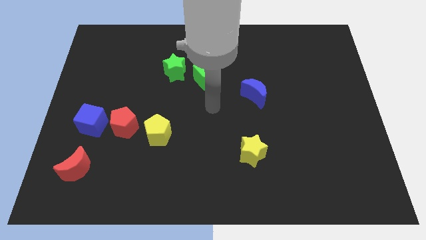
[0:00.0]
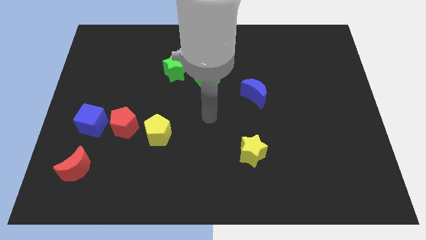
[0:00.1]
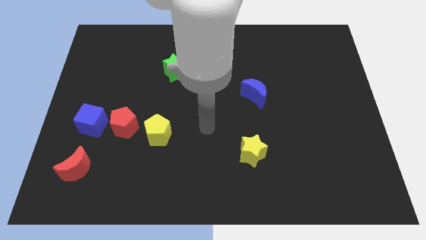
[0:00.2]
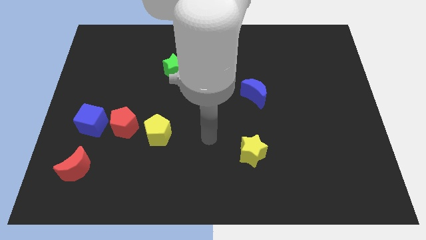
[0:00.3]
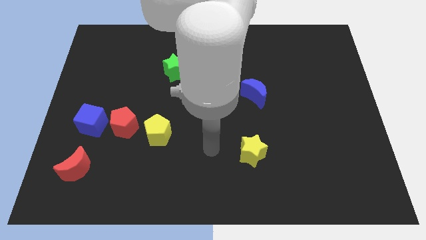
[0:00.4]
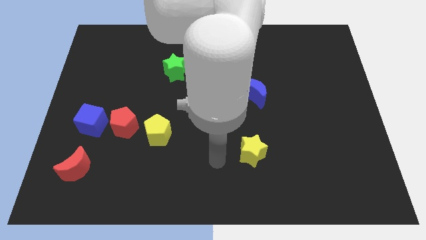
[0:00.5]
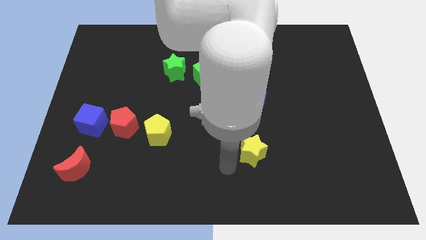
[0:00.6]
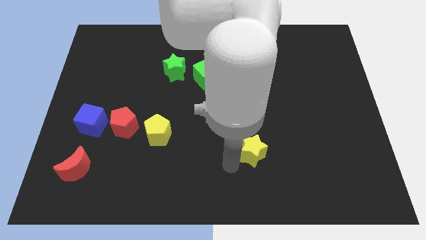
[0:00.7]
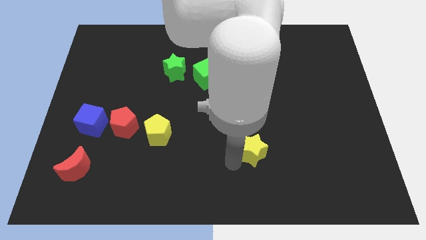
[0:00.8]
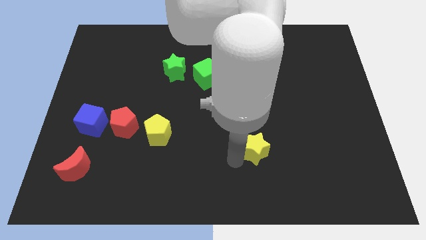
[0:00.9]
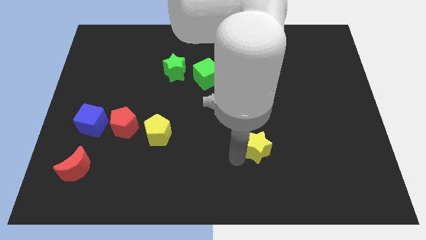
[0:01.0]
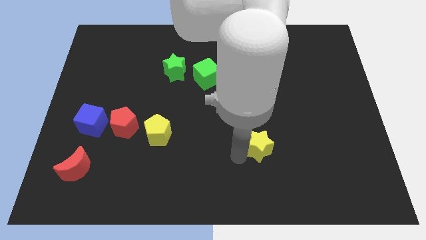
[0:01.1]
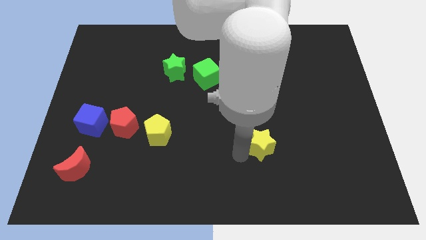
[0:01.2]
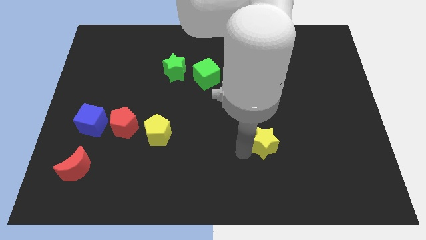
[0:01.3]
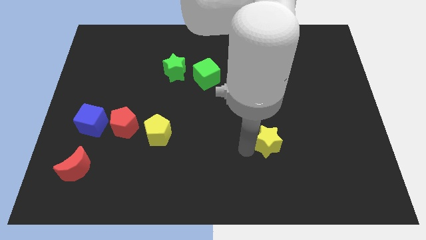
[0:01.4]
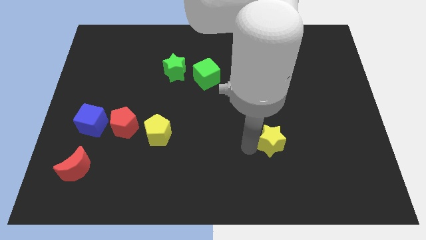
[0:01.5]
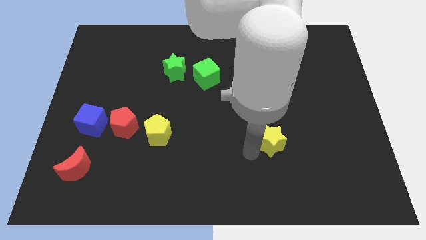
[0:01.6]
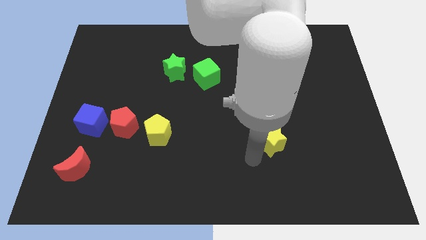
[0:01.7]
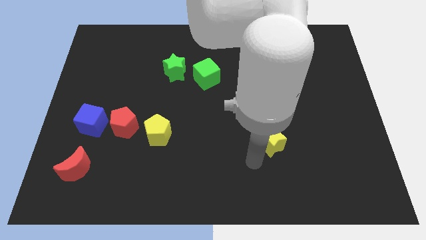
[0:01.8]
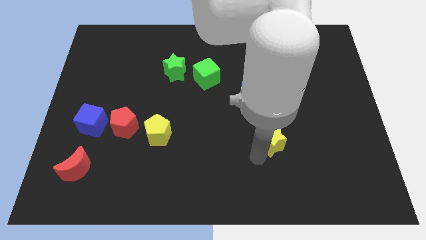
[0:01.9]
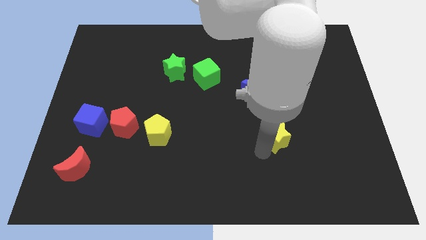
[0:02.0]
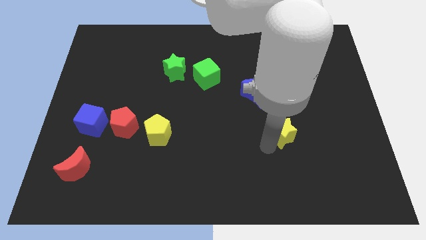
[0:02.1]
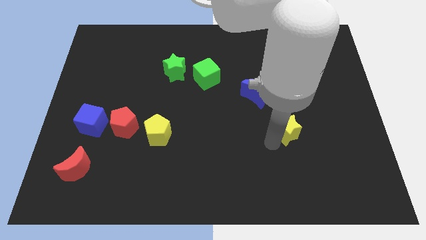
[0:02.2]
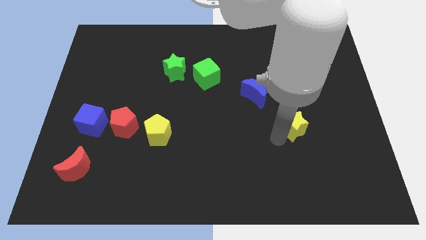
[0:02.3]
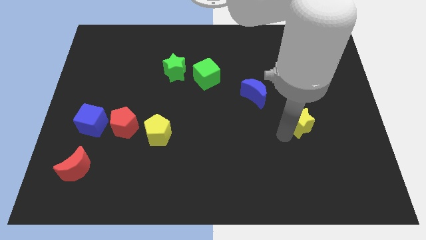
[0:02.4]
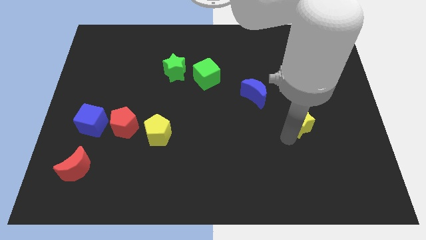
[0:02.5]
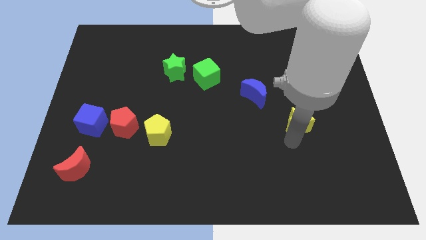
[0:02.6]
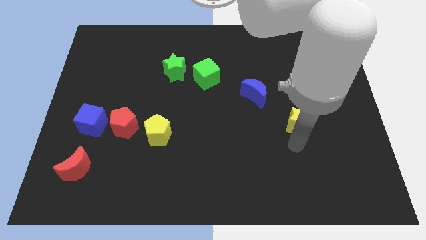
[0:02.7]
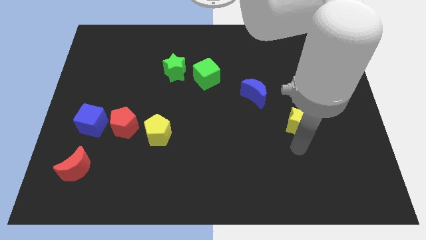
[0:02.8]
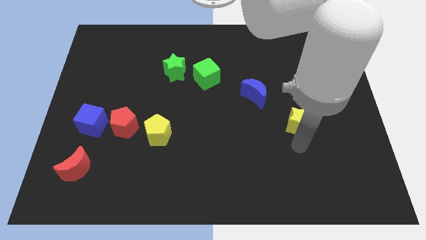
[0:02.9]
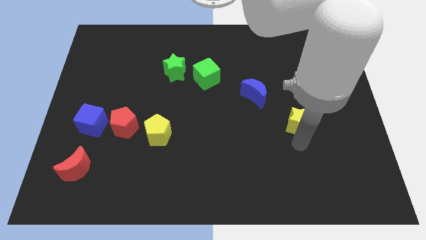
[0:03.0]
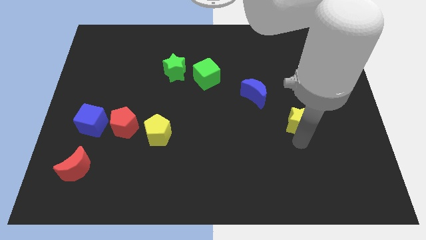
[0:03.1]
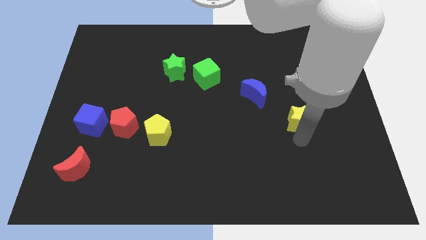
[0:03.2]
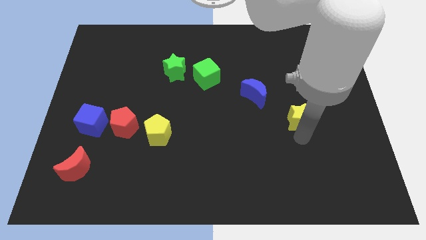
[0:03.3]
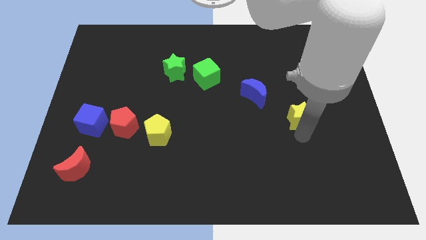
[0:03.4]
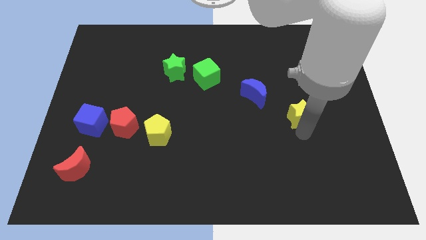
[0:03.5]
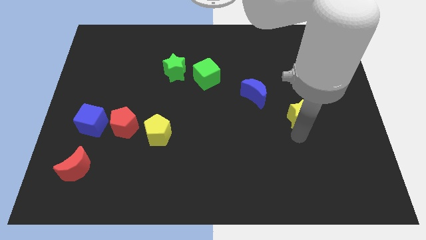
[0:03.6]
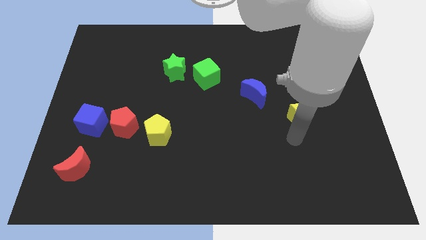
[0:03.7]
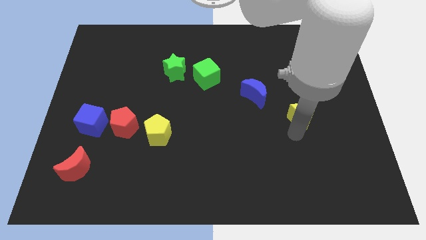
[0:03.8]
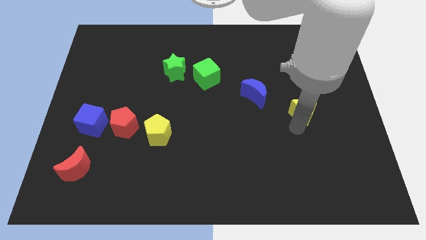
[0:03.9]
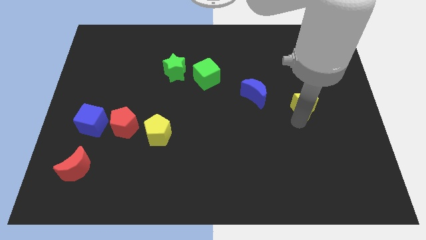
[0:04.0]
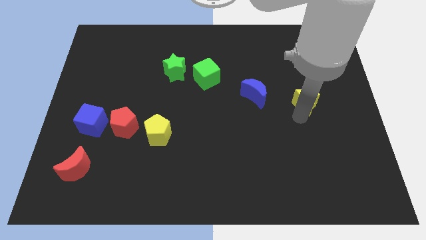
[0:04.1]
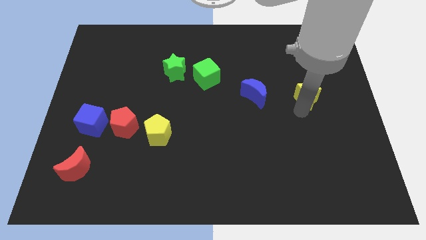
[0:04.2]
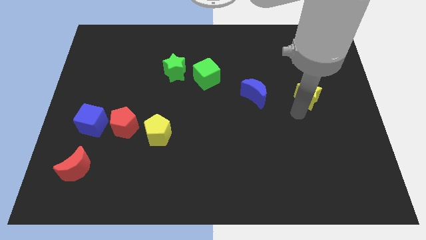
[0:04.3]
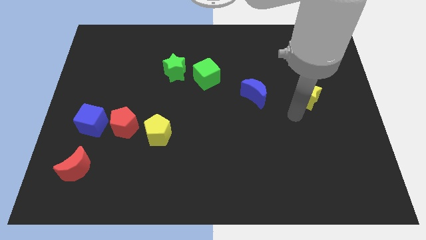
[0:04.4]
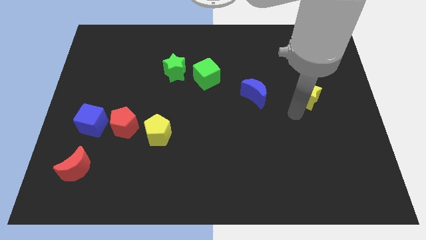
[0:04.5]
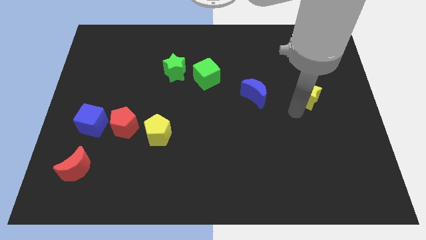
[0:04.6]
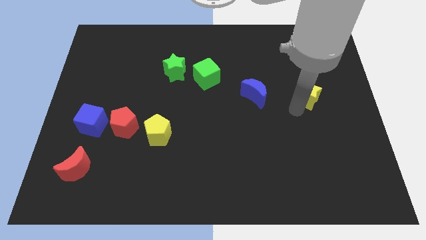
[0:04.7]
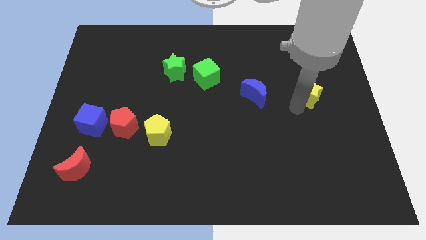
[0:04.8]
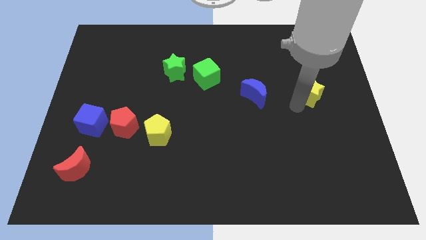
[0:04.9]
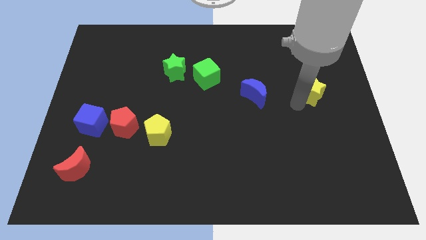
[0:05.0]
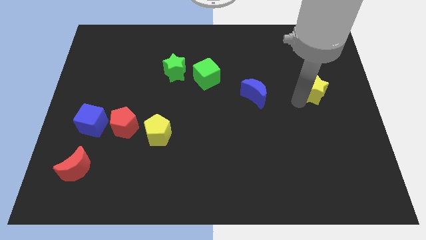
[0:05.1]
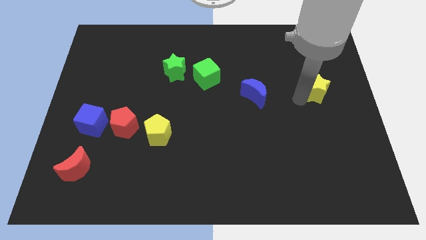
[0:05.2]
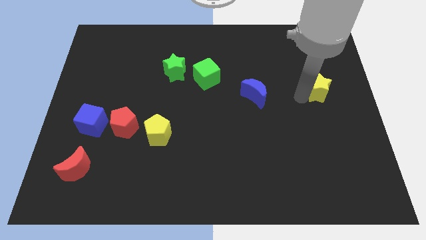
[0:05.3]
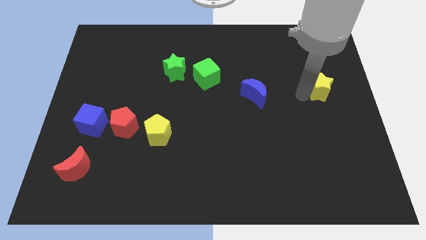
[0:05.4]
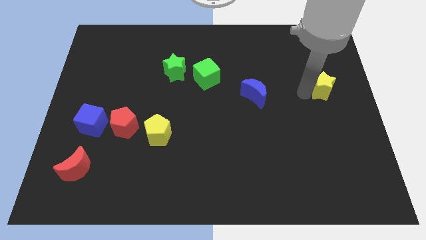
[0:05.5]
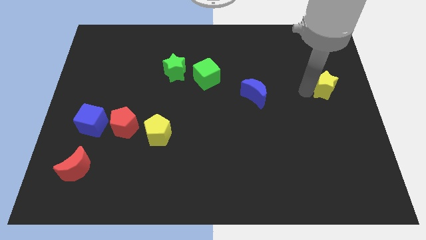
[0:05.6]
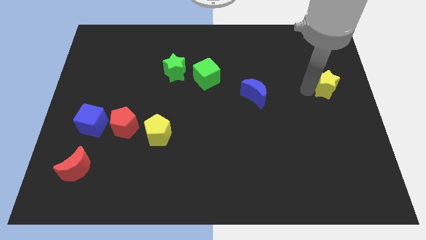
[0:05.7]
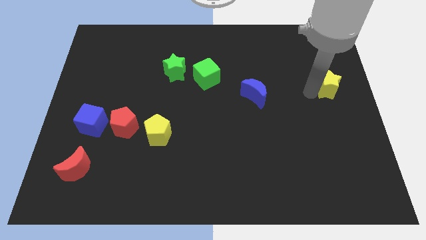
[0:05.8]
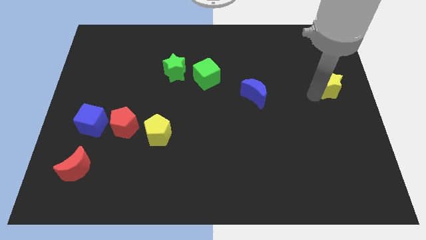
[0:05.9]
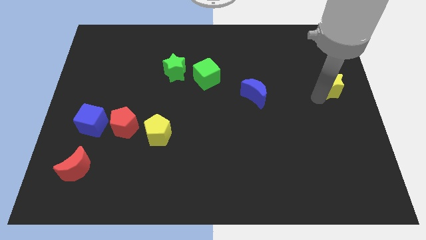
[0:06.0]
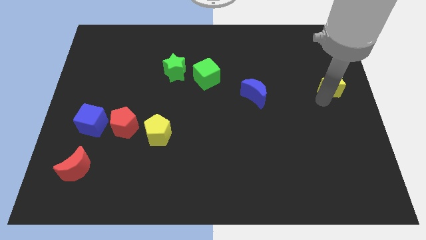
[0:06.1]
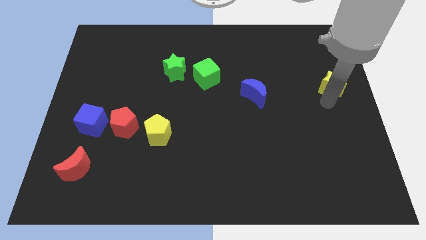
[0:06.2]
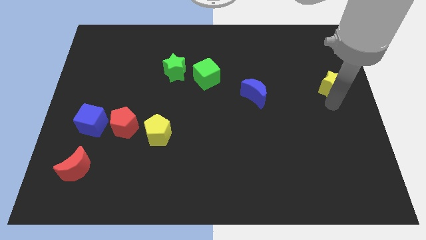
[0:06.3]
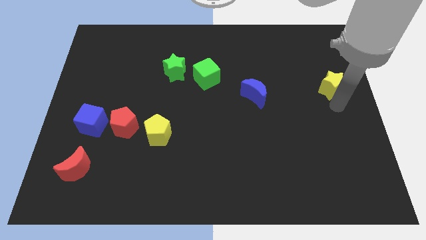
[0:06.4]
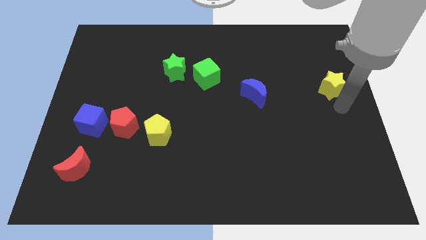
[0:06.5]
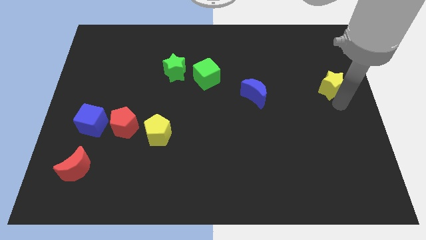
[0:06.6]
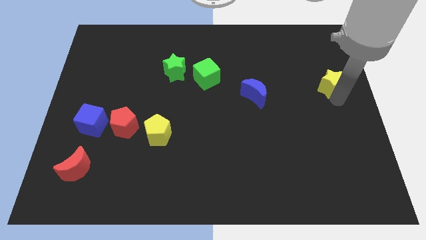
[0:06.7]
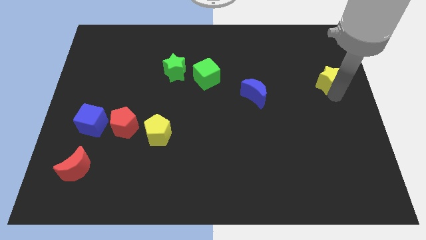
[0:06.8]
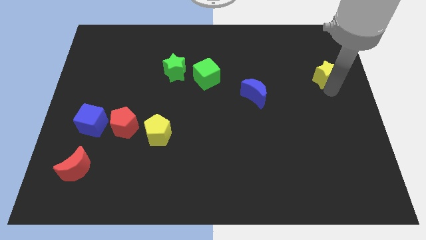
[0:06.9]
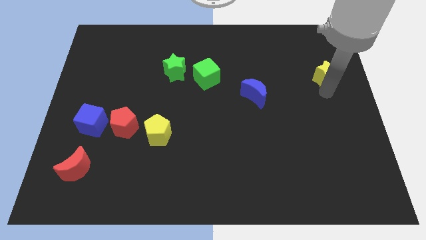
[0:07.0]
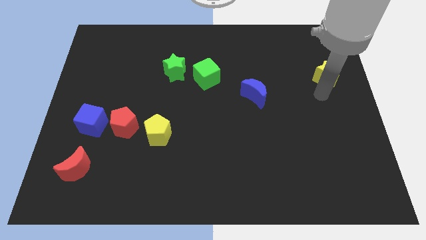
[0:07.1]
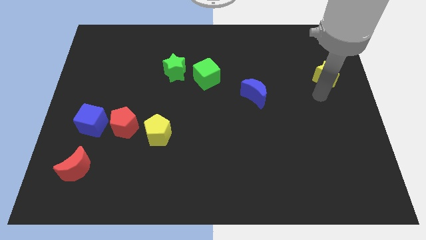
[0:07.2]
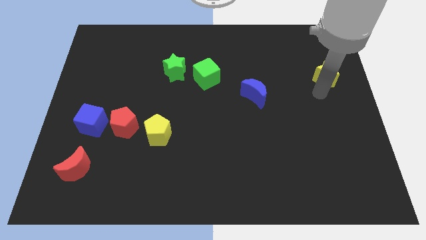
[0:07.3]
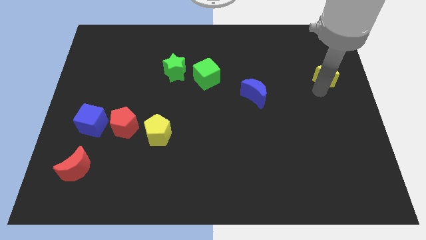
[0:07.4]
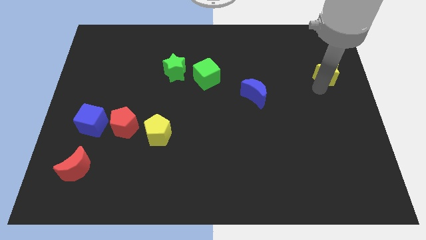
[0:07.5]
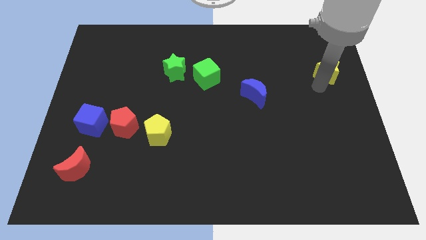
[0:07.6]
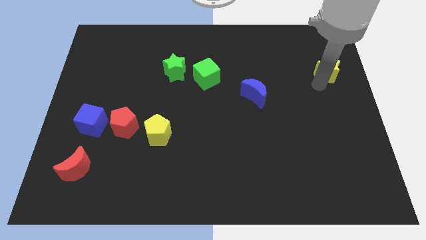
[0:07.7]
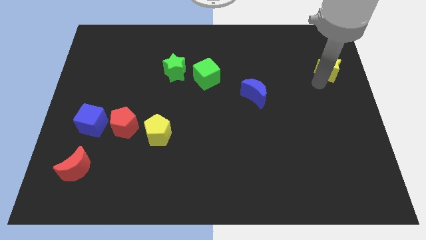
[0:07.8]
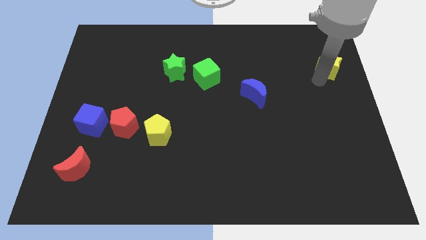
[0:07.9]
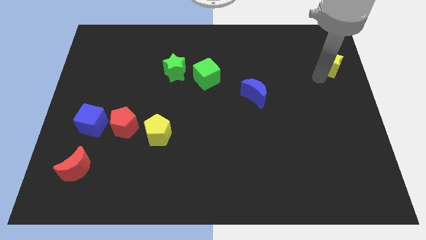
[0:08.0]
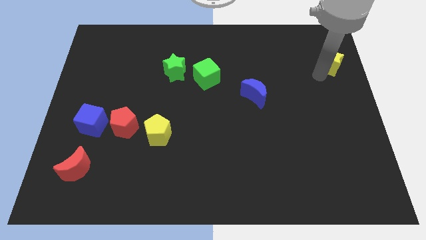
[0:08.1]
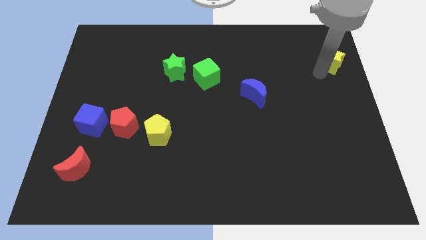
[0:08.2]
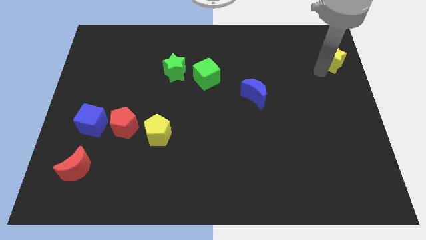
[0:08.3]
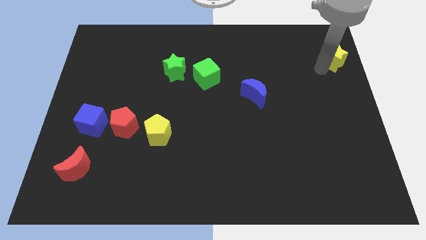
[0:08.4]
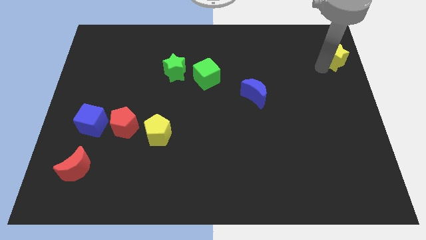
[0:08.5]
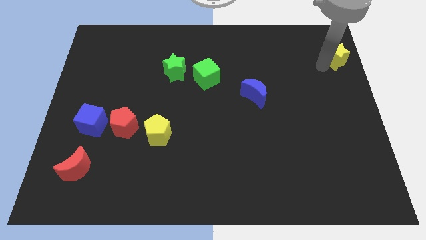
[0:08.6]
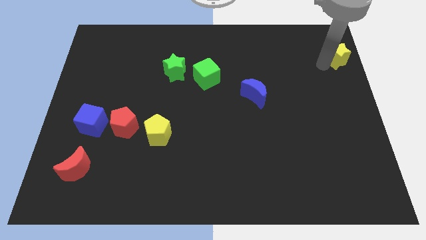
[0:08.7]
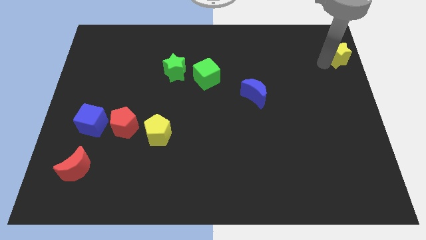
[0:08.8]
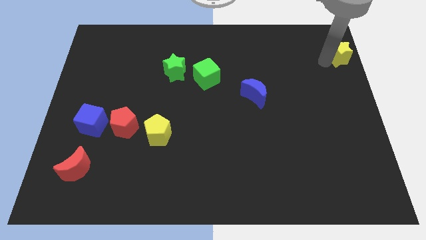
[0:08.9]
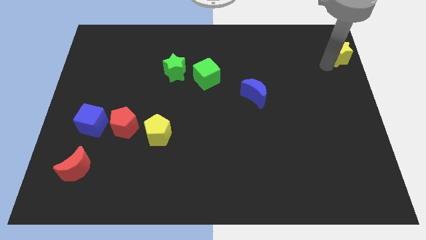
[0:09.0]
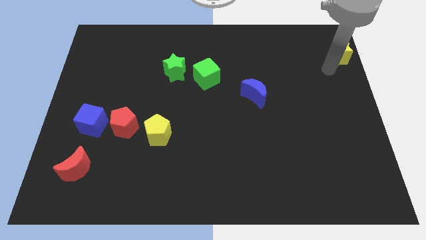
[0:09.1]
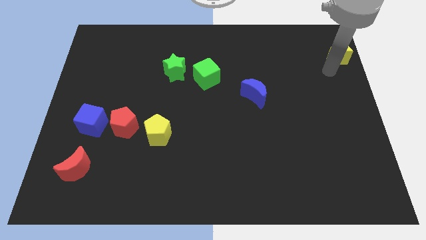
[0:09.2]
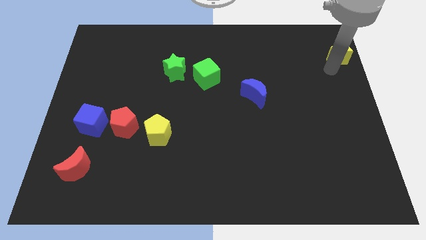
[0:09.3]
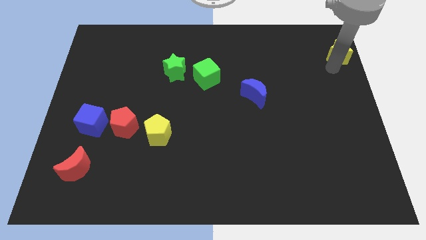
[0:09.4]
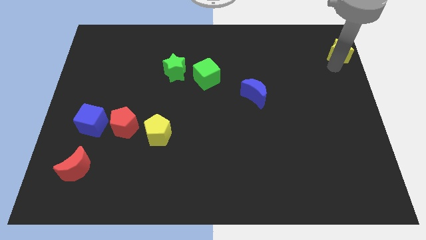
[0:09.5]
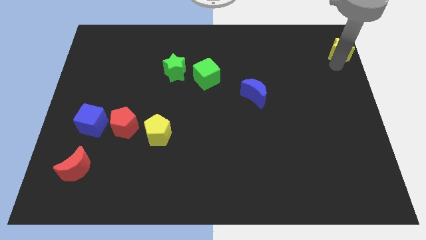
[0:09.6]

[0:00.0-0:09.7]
put the yellow star to the upper right corner
